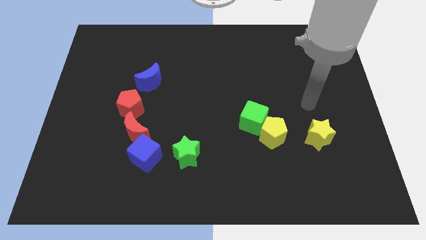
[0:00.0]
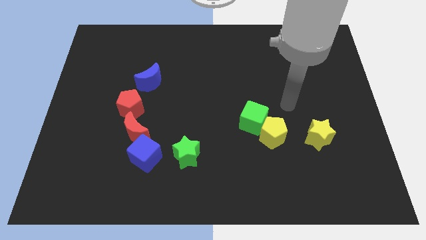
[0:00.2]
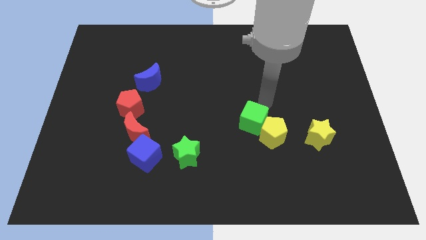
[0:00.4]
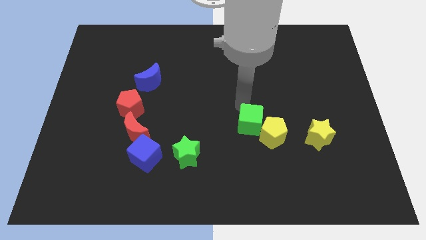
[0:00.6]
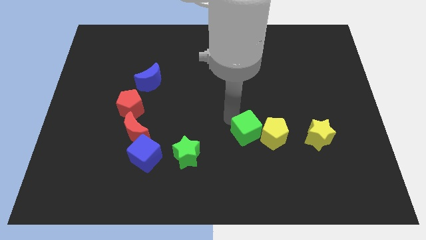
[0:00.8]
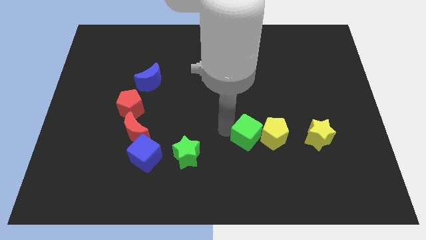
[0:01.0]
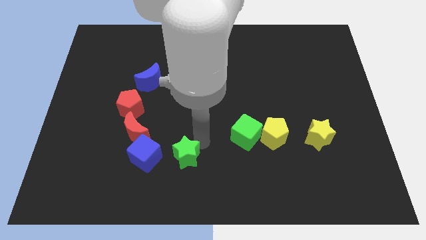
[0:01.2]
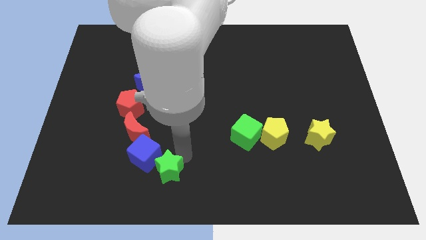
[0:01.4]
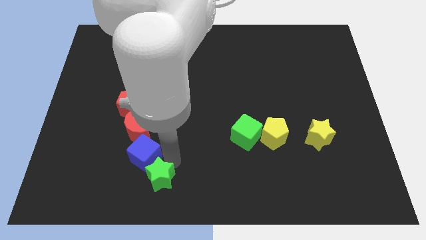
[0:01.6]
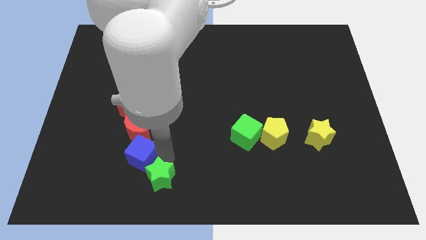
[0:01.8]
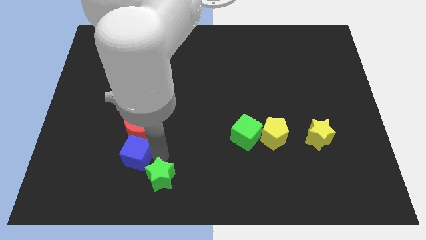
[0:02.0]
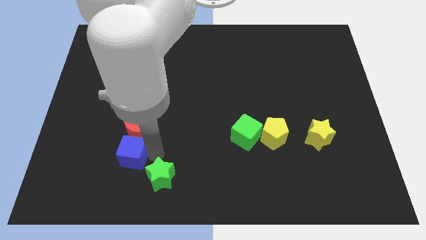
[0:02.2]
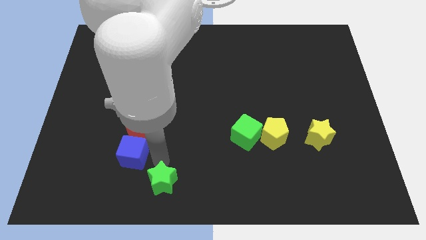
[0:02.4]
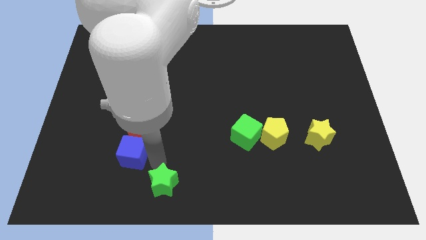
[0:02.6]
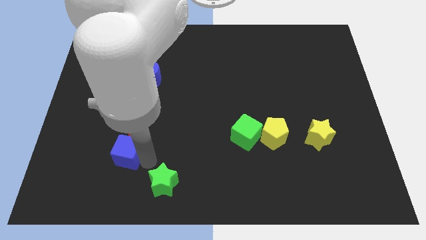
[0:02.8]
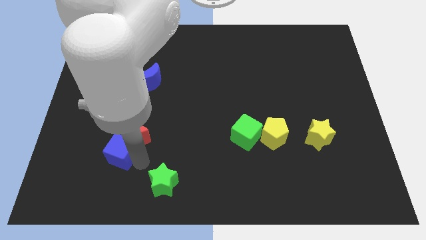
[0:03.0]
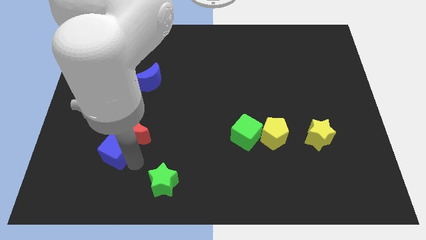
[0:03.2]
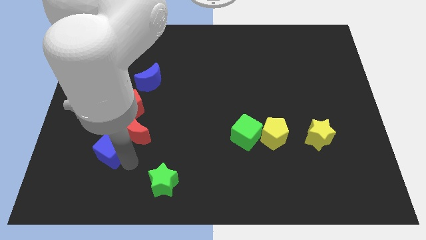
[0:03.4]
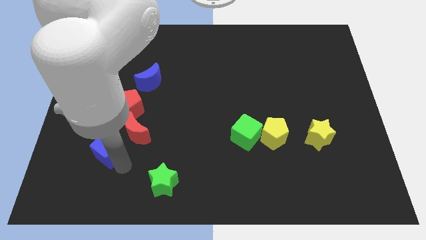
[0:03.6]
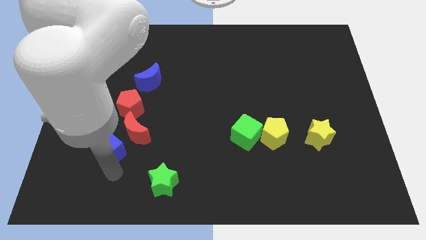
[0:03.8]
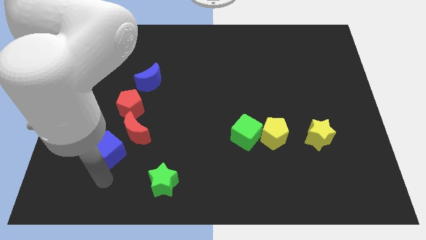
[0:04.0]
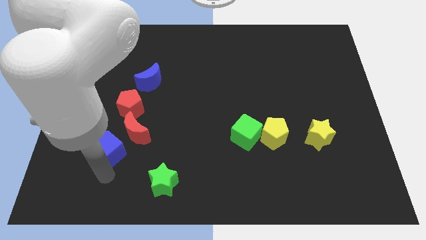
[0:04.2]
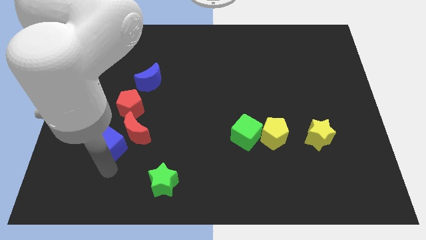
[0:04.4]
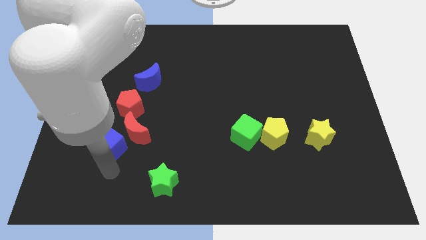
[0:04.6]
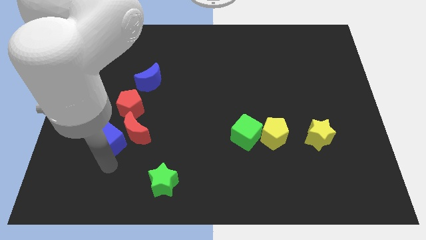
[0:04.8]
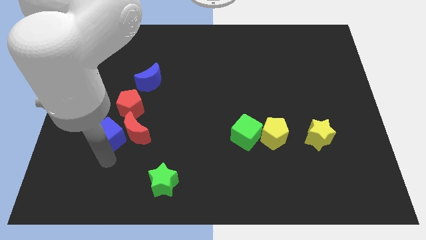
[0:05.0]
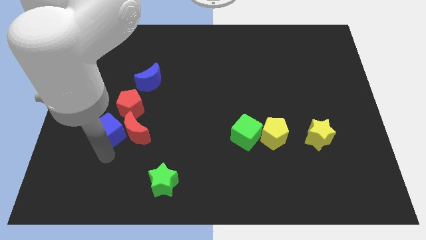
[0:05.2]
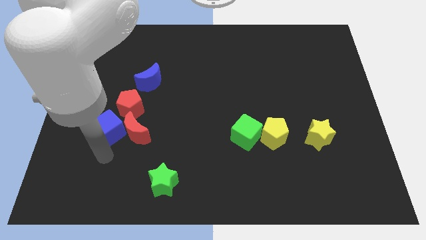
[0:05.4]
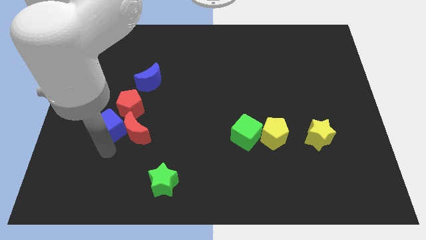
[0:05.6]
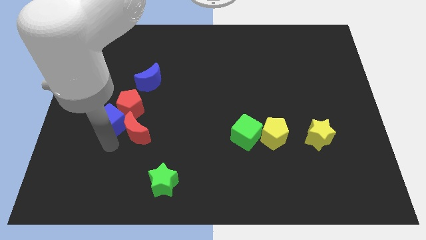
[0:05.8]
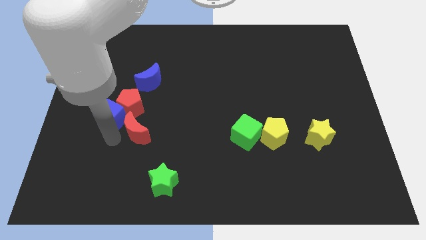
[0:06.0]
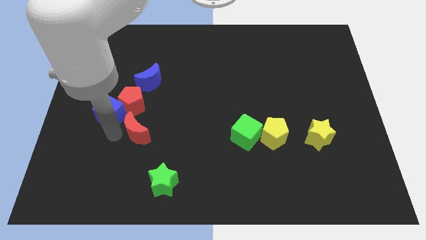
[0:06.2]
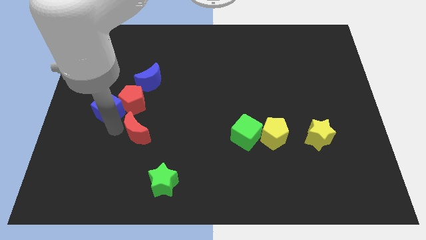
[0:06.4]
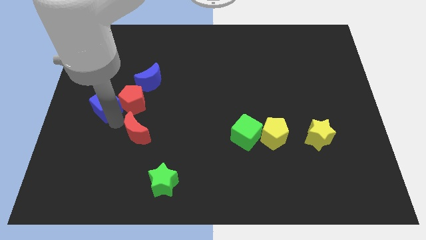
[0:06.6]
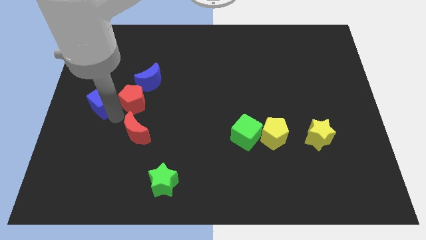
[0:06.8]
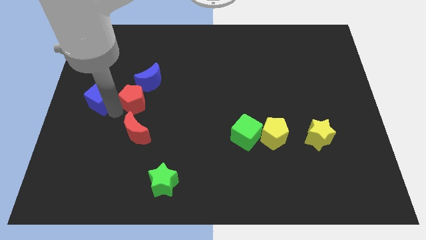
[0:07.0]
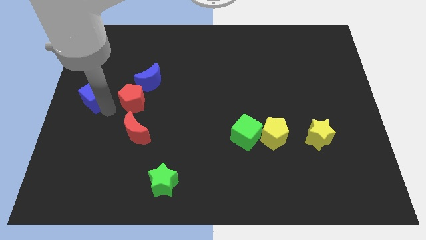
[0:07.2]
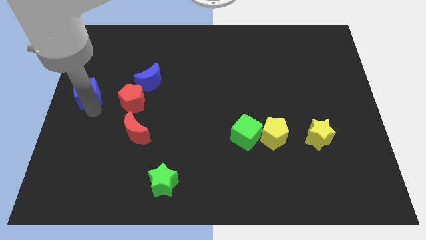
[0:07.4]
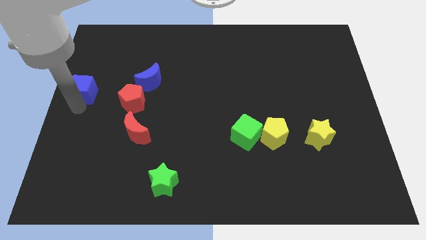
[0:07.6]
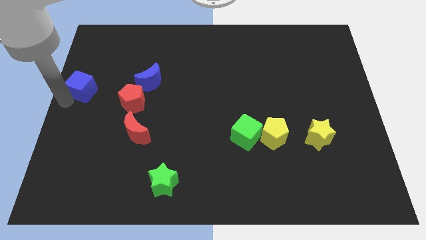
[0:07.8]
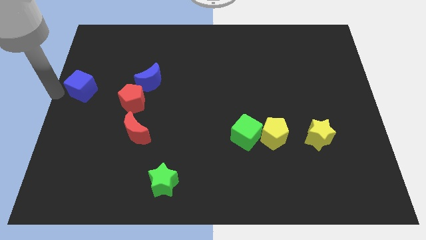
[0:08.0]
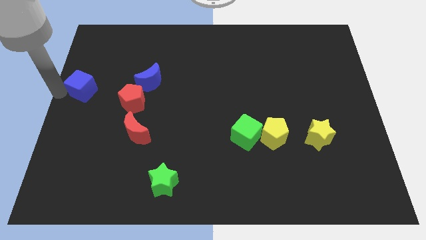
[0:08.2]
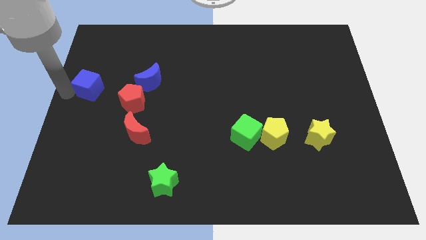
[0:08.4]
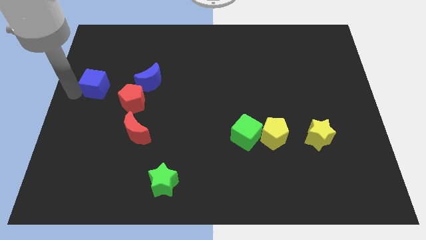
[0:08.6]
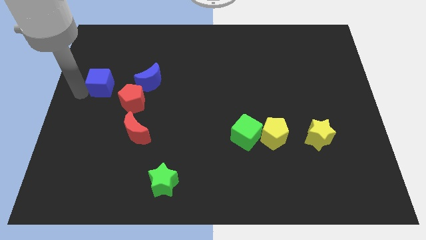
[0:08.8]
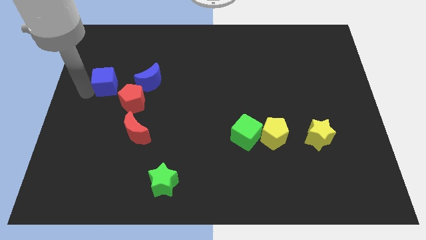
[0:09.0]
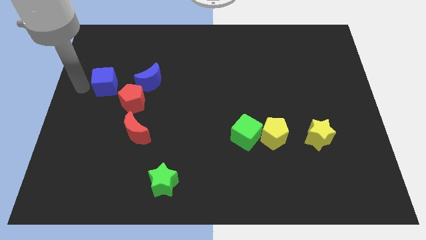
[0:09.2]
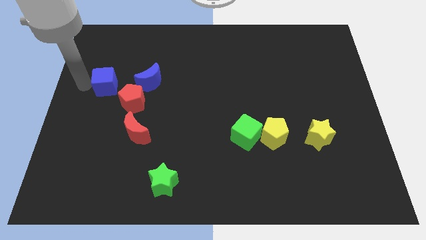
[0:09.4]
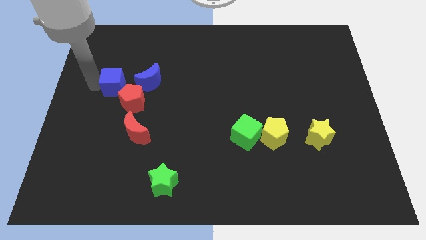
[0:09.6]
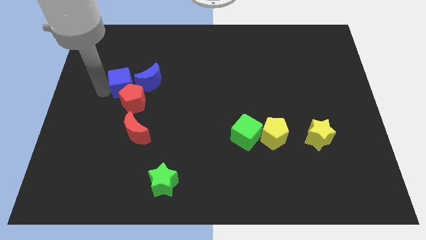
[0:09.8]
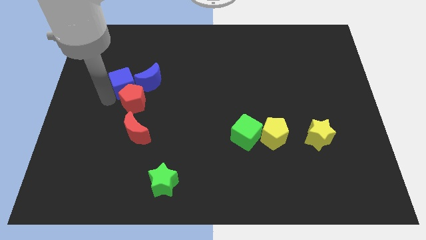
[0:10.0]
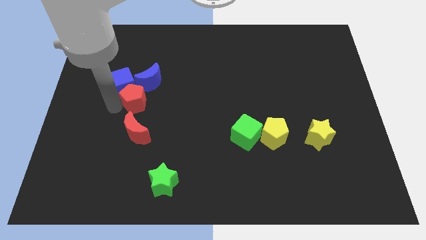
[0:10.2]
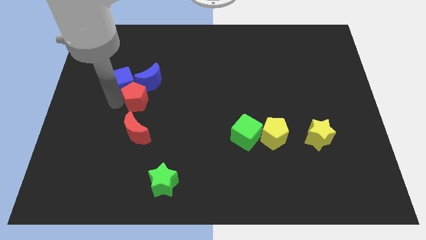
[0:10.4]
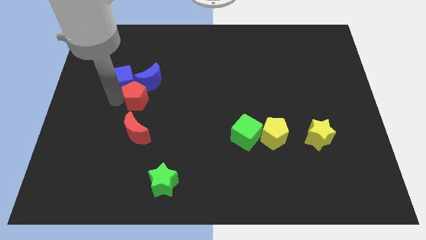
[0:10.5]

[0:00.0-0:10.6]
push the blue cube to the top left of the blue moon

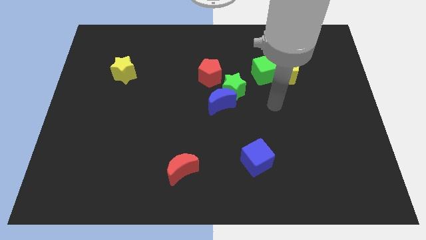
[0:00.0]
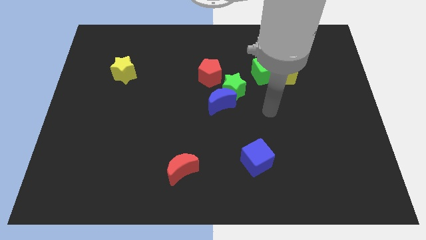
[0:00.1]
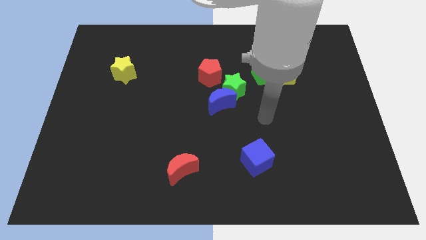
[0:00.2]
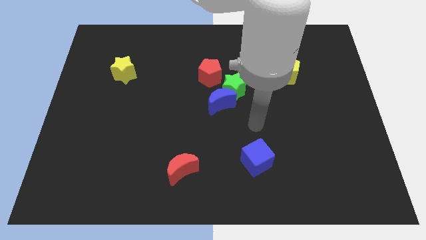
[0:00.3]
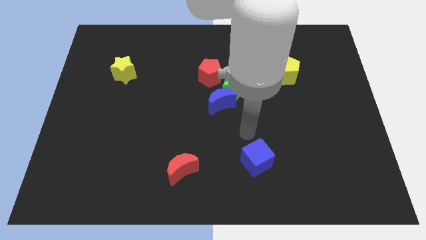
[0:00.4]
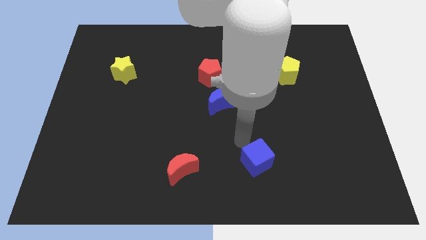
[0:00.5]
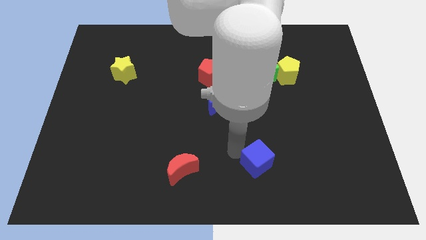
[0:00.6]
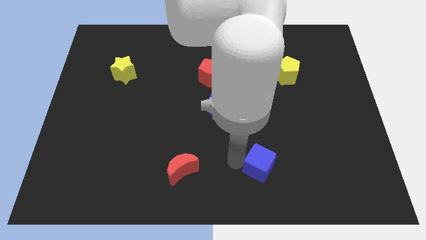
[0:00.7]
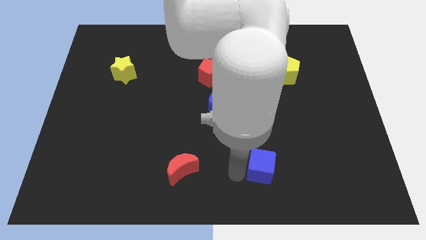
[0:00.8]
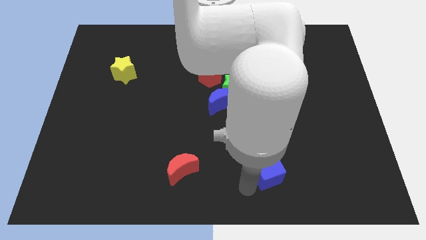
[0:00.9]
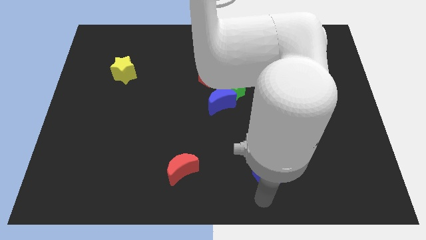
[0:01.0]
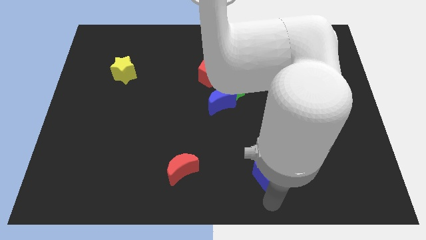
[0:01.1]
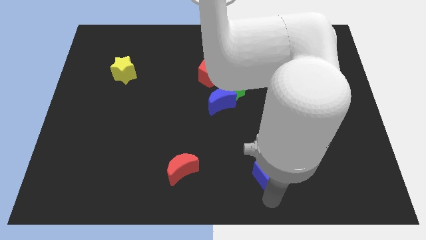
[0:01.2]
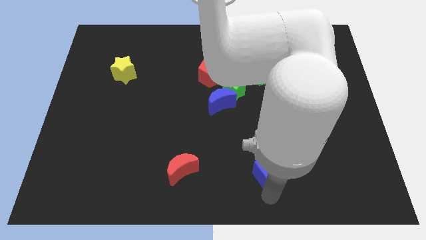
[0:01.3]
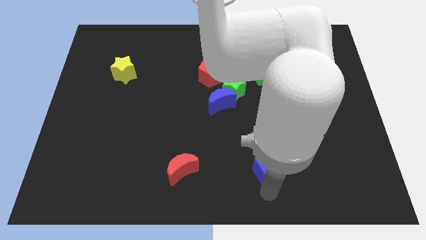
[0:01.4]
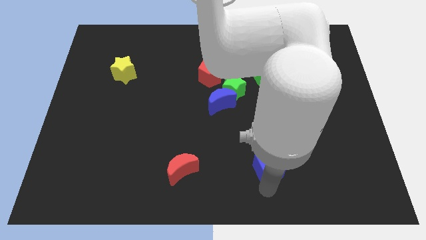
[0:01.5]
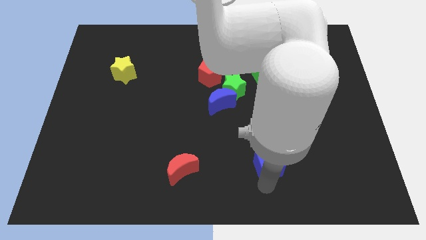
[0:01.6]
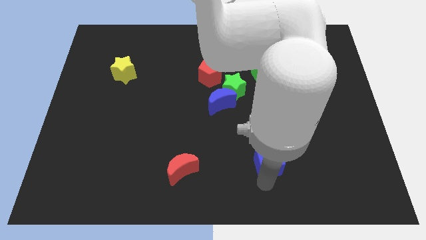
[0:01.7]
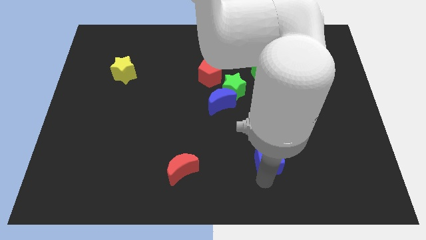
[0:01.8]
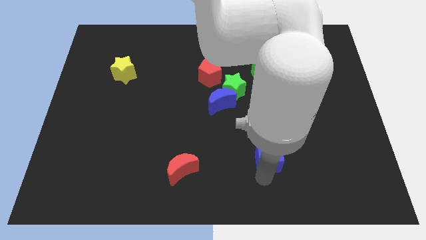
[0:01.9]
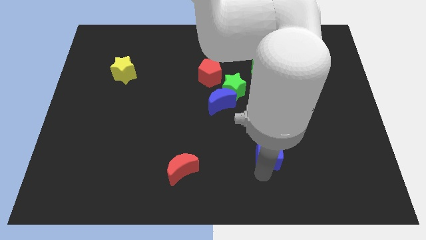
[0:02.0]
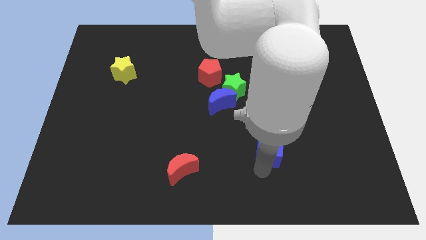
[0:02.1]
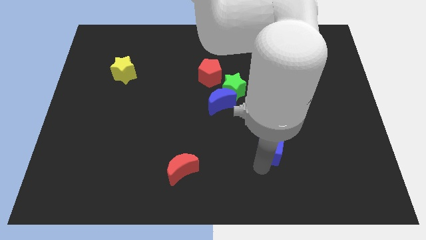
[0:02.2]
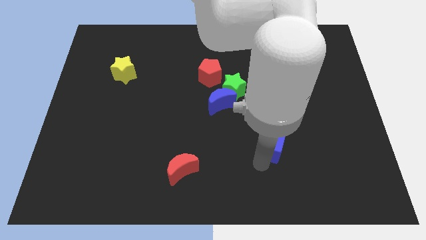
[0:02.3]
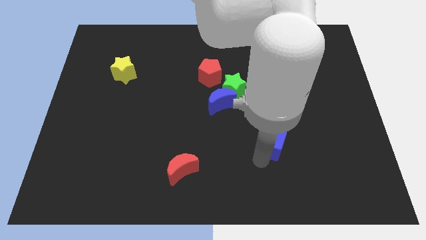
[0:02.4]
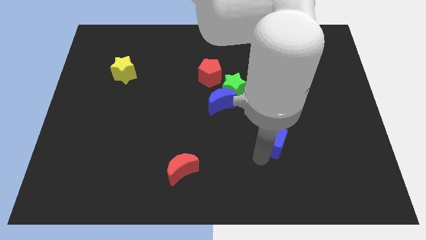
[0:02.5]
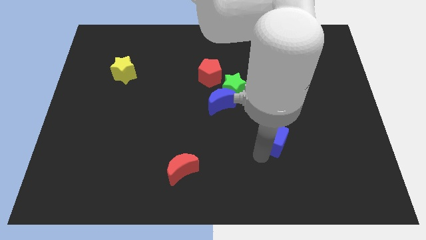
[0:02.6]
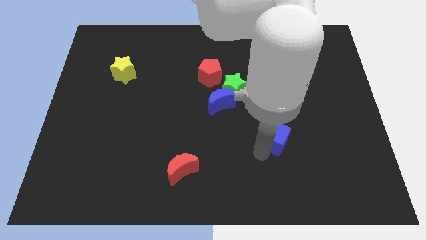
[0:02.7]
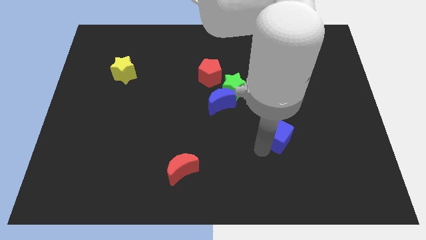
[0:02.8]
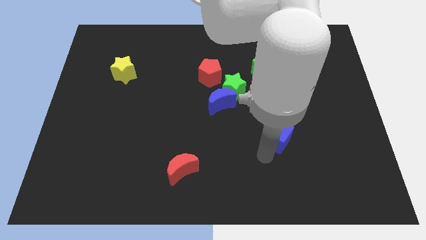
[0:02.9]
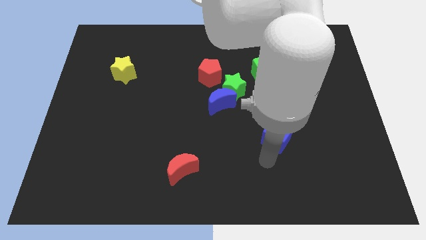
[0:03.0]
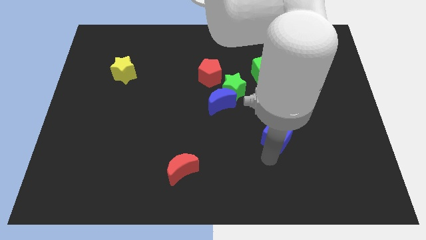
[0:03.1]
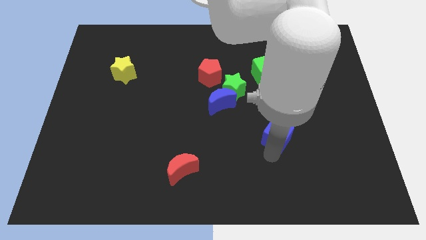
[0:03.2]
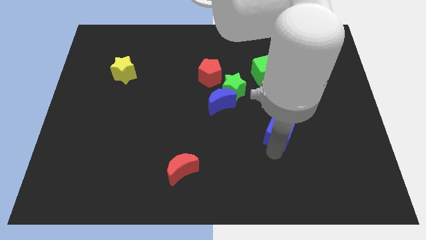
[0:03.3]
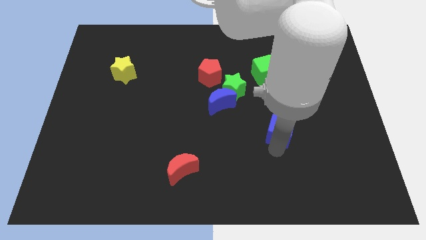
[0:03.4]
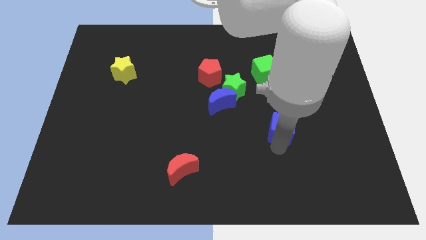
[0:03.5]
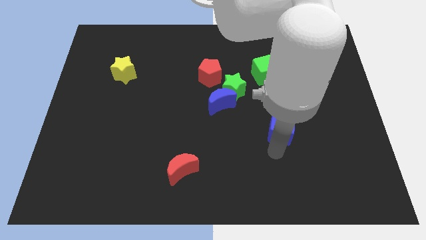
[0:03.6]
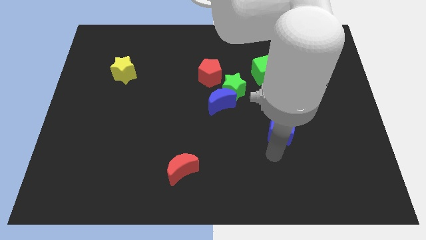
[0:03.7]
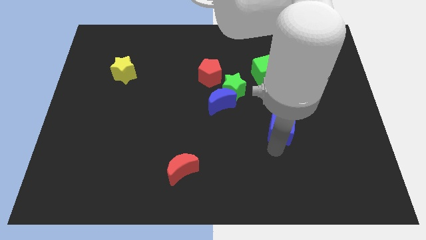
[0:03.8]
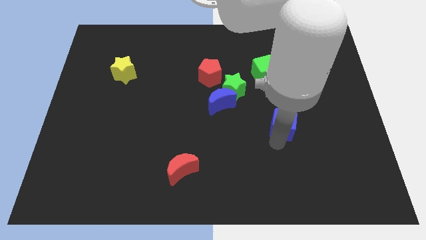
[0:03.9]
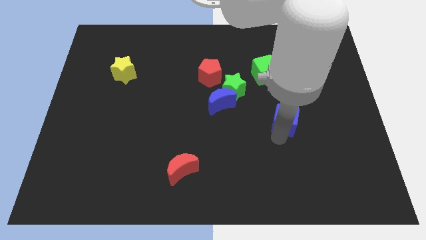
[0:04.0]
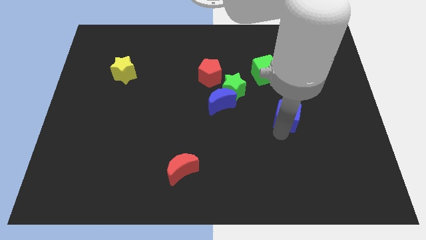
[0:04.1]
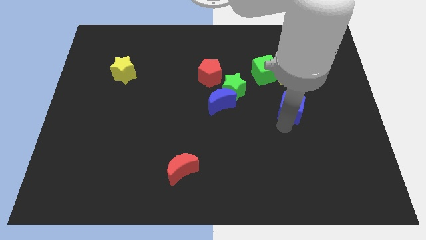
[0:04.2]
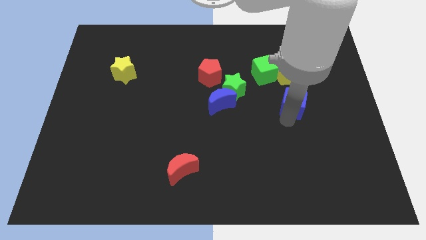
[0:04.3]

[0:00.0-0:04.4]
push the blue cube to the bottom right of the green cube
